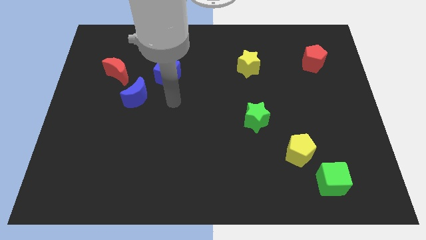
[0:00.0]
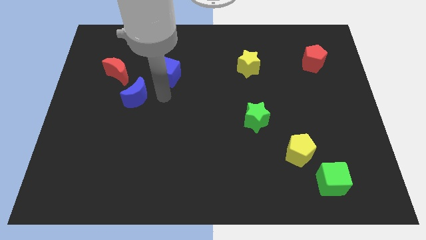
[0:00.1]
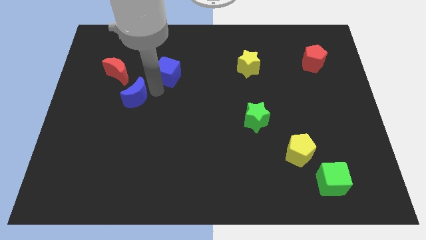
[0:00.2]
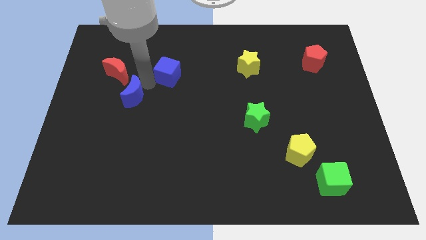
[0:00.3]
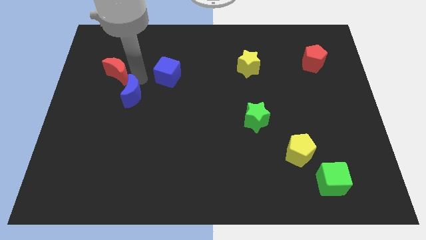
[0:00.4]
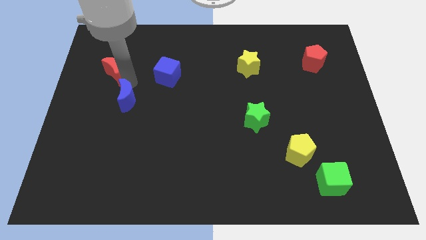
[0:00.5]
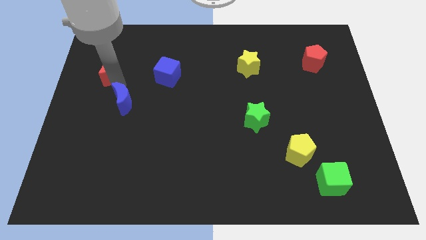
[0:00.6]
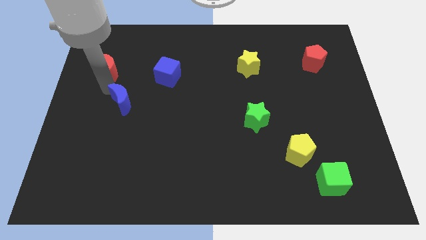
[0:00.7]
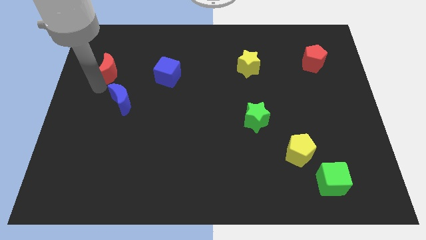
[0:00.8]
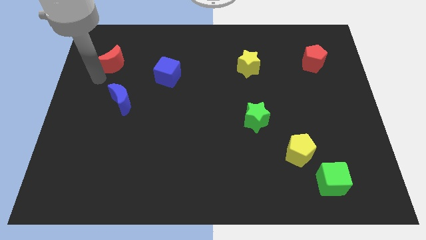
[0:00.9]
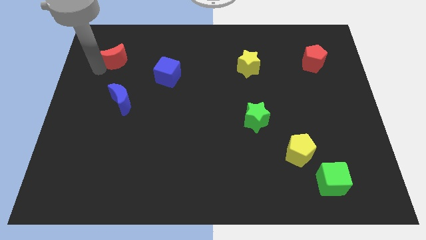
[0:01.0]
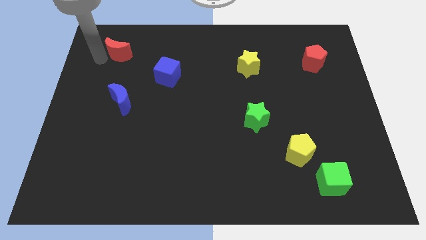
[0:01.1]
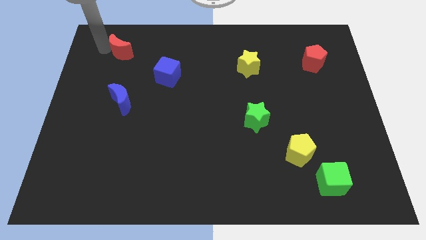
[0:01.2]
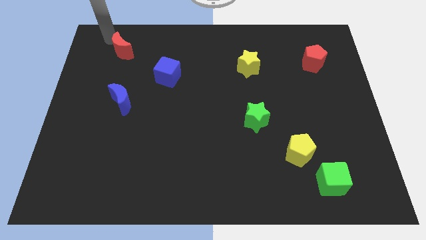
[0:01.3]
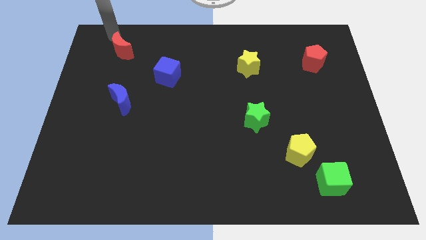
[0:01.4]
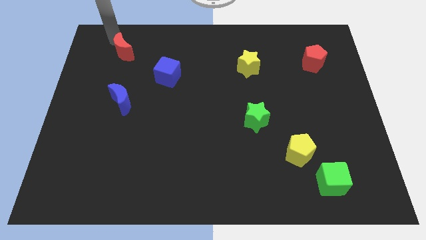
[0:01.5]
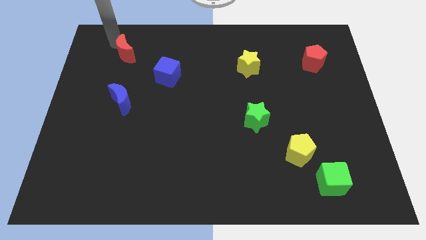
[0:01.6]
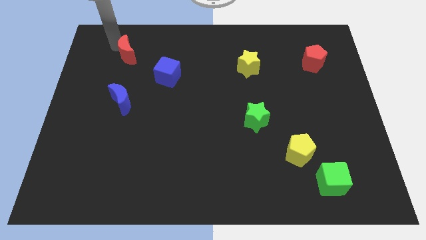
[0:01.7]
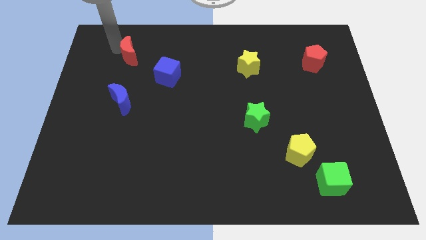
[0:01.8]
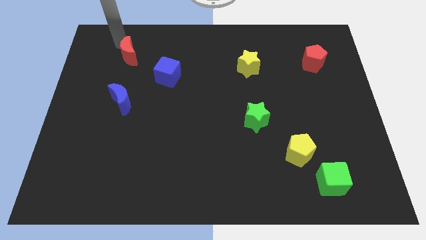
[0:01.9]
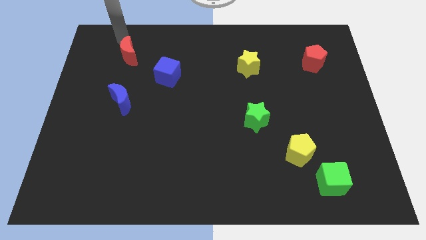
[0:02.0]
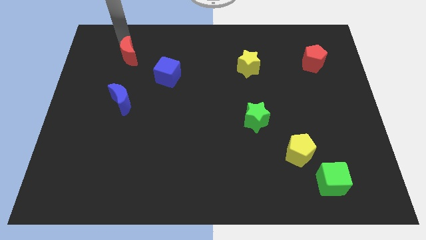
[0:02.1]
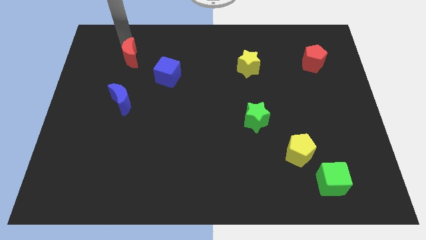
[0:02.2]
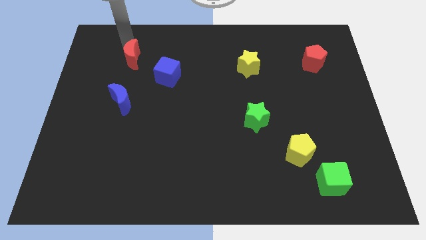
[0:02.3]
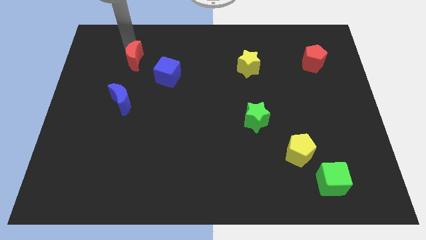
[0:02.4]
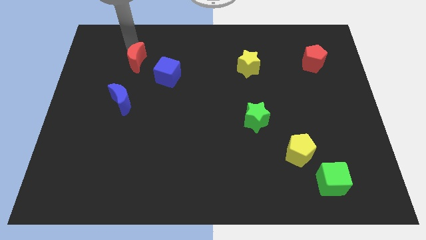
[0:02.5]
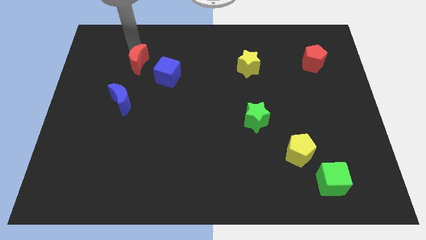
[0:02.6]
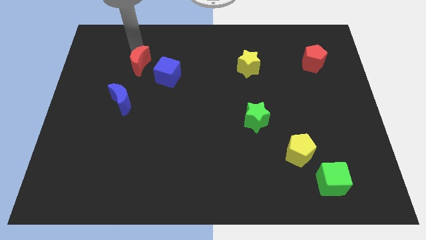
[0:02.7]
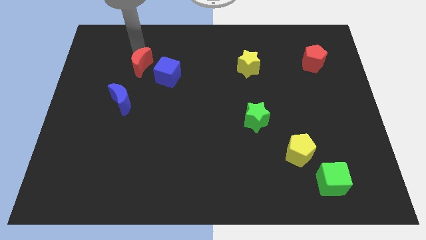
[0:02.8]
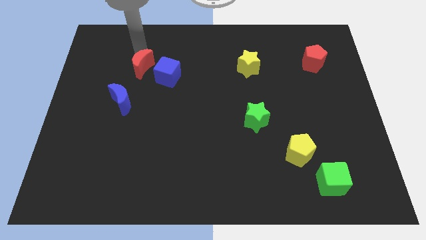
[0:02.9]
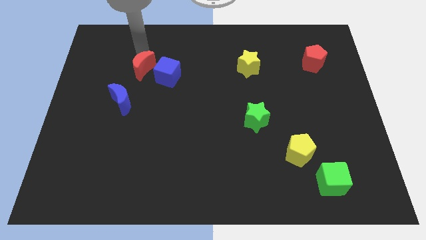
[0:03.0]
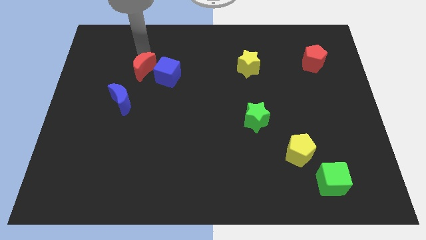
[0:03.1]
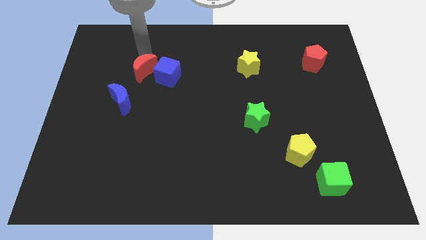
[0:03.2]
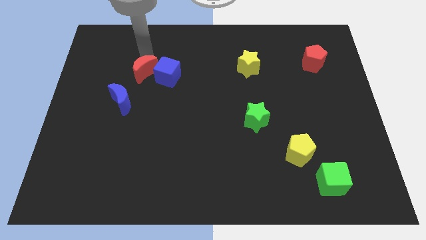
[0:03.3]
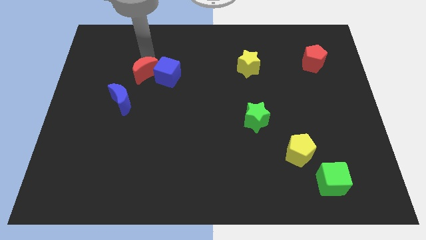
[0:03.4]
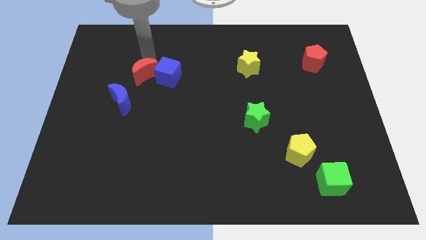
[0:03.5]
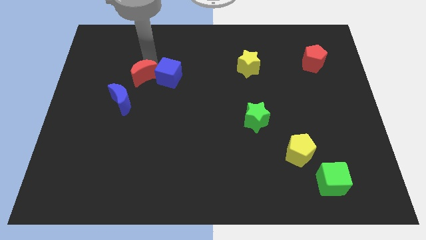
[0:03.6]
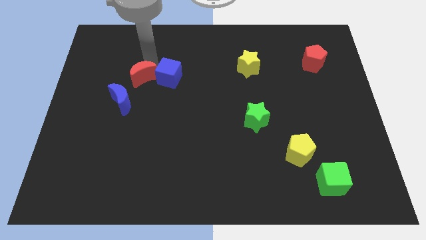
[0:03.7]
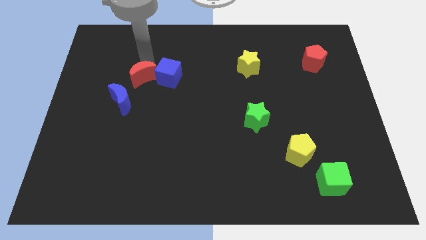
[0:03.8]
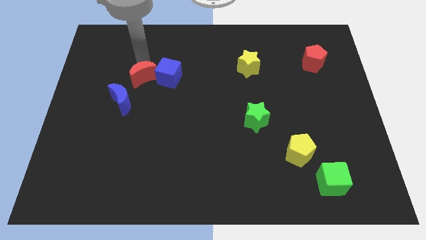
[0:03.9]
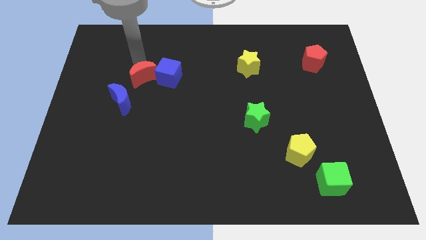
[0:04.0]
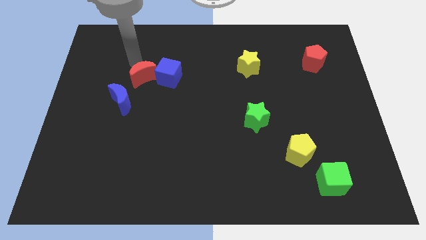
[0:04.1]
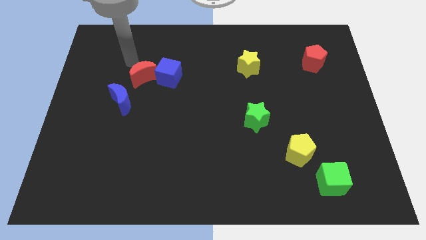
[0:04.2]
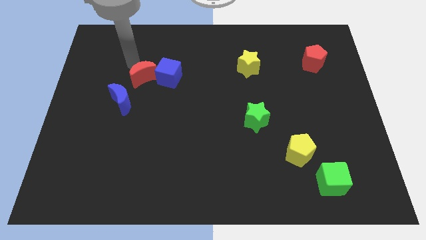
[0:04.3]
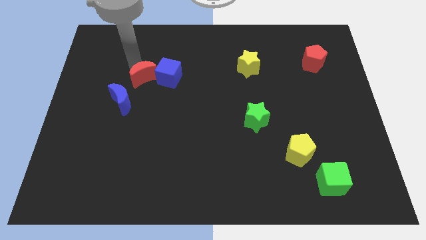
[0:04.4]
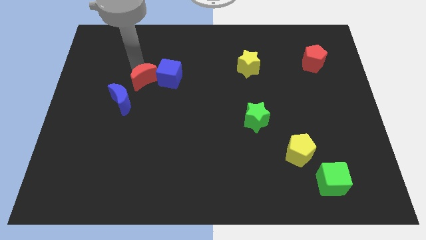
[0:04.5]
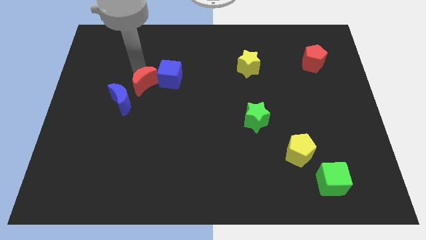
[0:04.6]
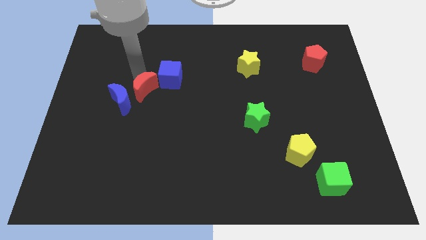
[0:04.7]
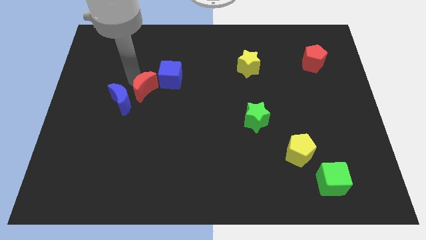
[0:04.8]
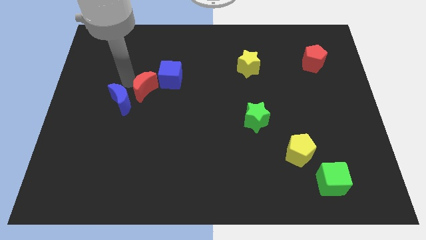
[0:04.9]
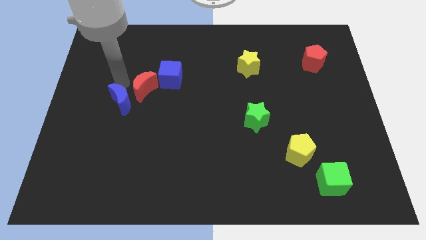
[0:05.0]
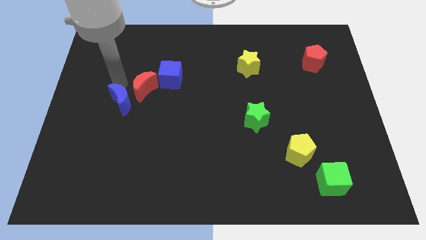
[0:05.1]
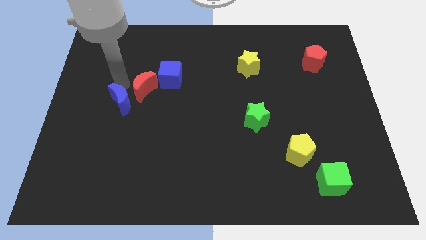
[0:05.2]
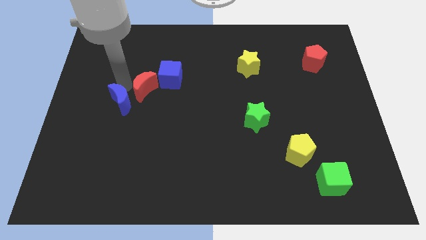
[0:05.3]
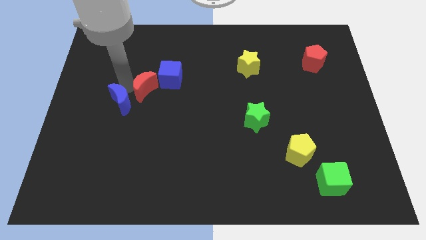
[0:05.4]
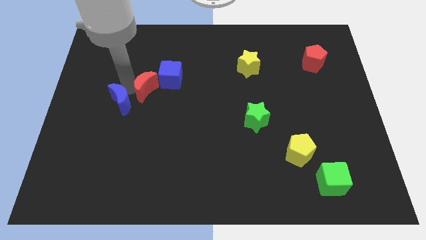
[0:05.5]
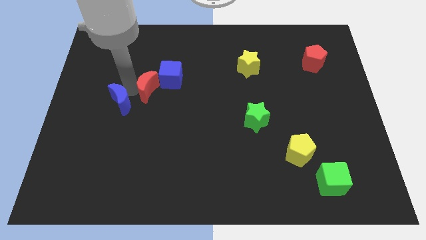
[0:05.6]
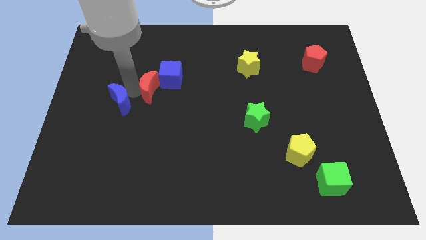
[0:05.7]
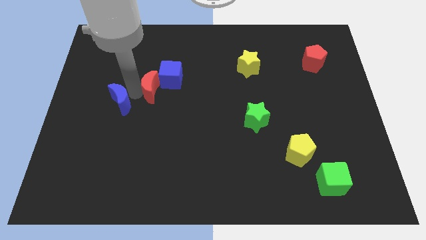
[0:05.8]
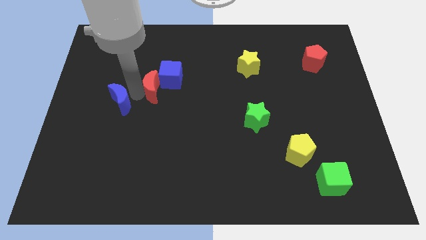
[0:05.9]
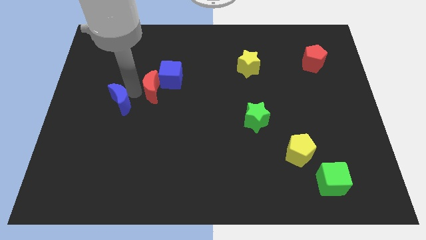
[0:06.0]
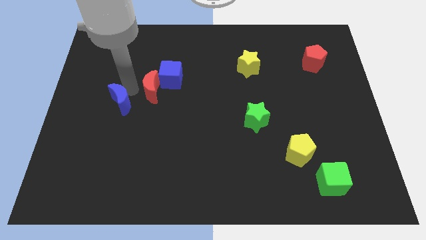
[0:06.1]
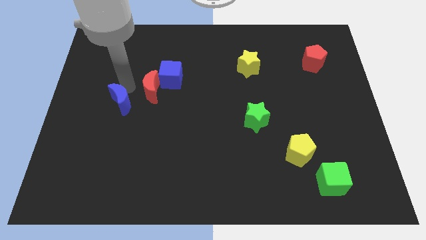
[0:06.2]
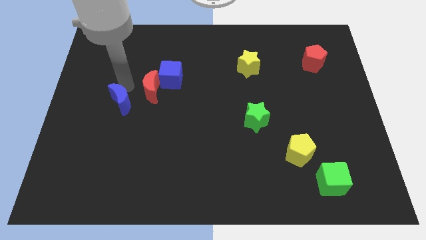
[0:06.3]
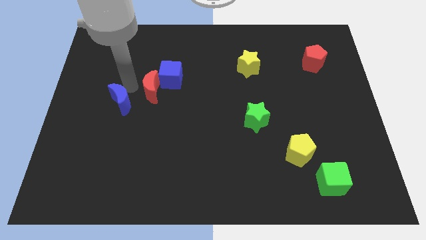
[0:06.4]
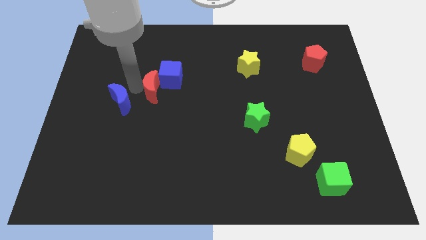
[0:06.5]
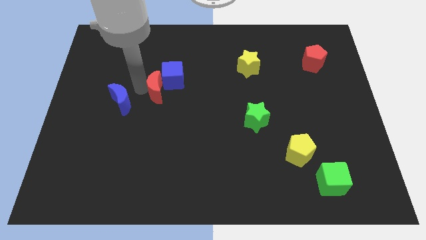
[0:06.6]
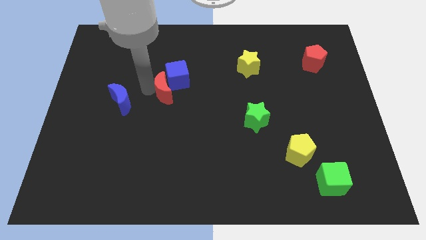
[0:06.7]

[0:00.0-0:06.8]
push the red moon to the center of the board
